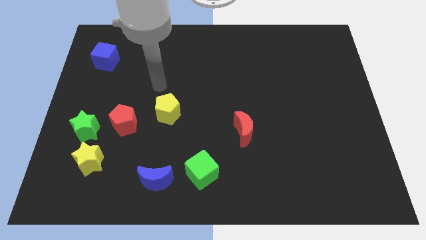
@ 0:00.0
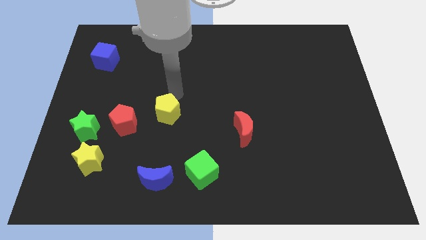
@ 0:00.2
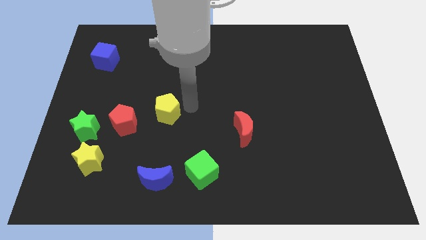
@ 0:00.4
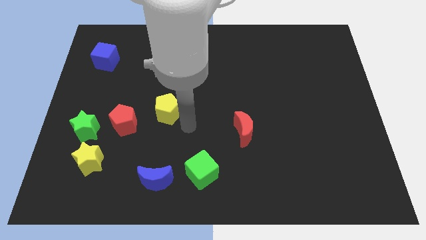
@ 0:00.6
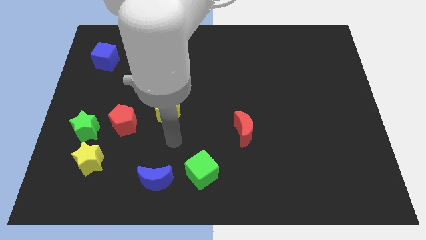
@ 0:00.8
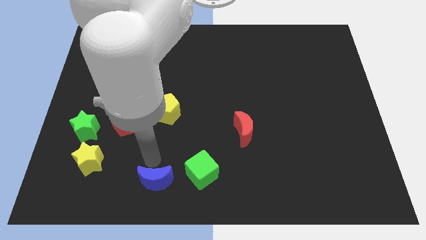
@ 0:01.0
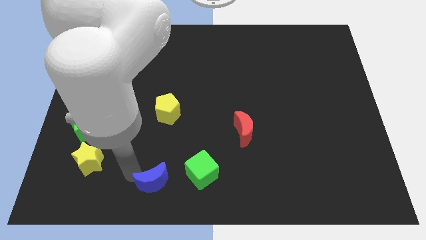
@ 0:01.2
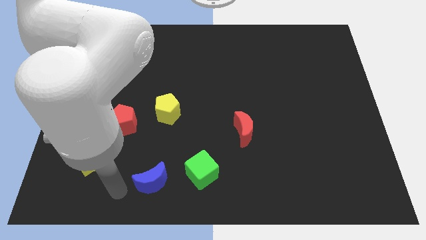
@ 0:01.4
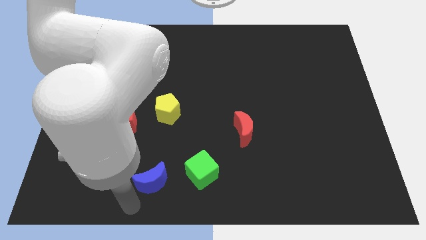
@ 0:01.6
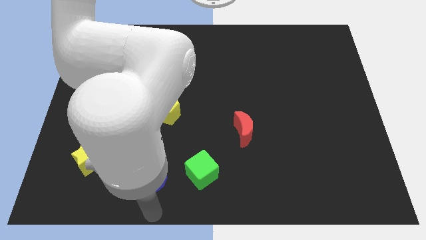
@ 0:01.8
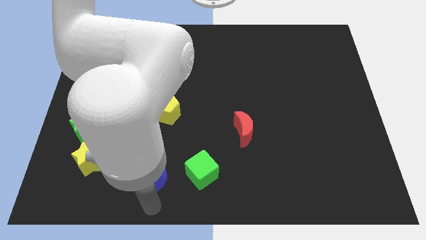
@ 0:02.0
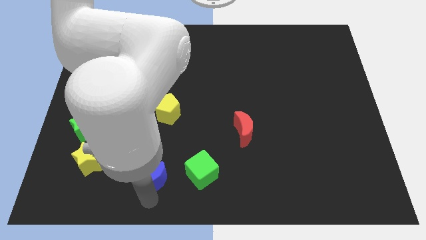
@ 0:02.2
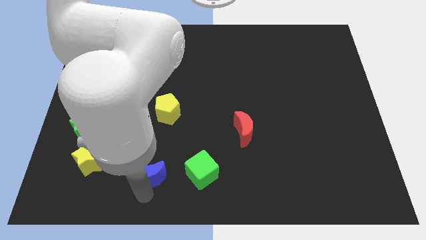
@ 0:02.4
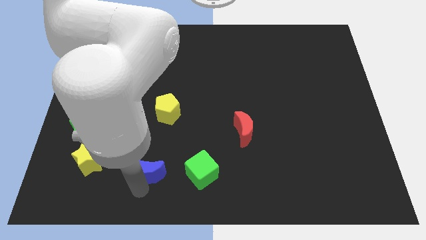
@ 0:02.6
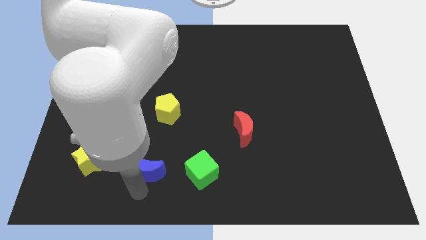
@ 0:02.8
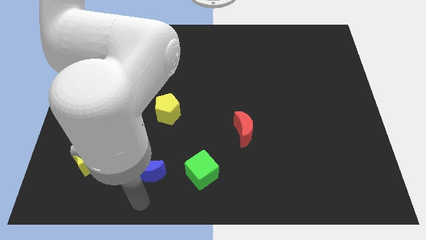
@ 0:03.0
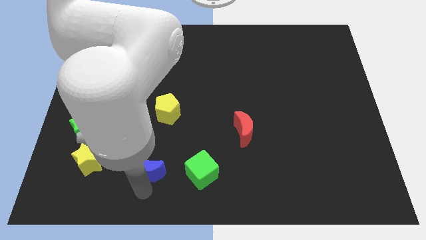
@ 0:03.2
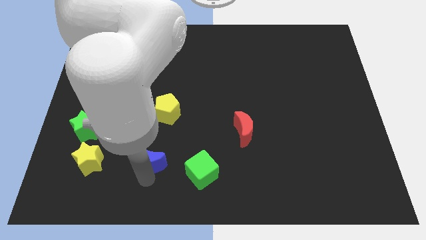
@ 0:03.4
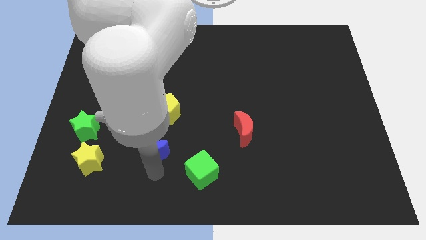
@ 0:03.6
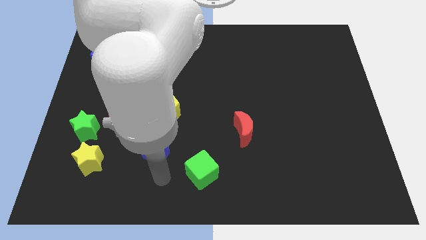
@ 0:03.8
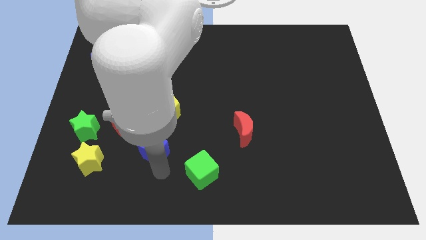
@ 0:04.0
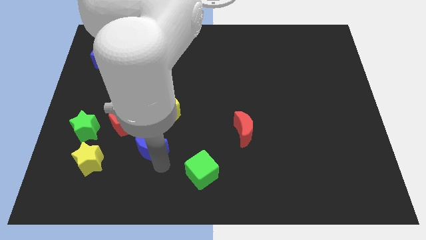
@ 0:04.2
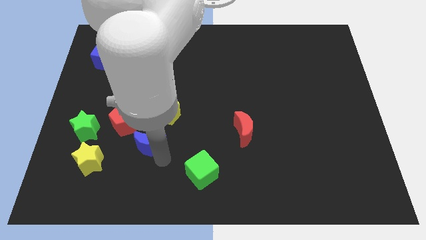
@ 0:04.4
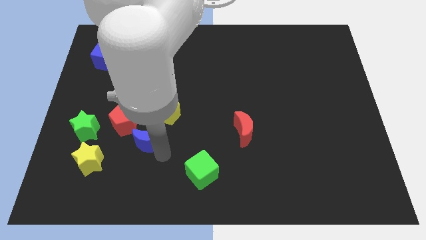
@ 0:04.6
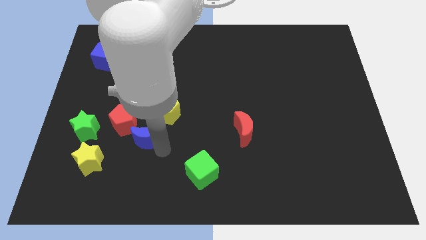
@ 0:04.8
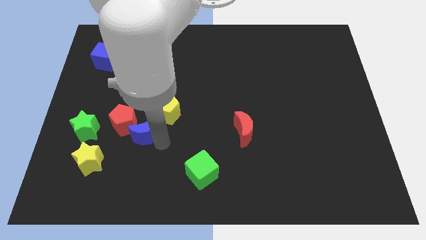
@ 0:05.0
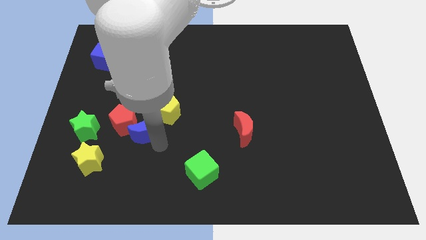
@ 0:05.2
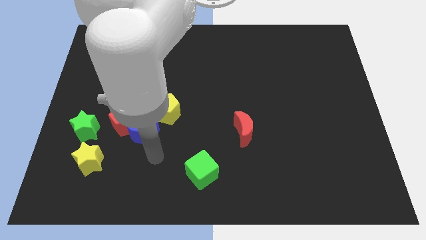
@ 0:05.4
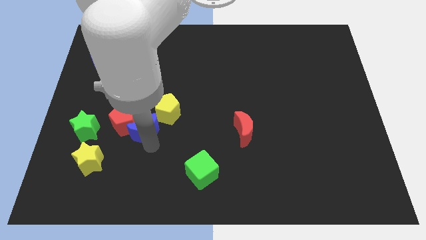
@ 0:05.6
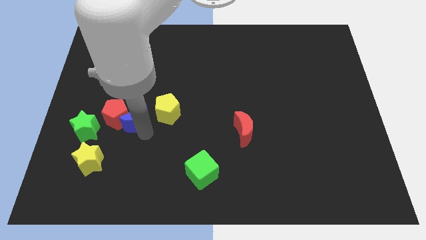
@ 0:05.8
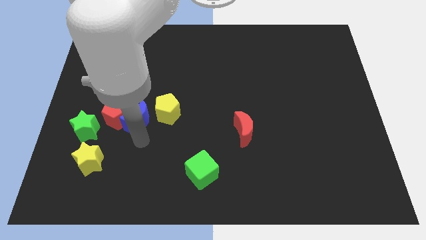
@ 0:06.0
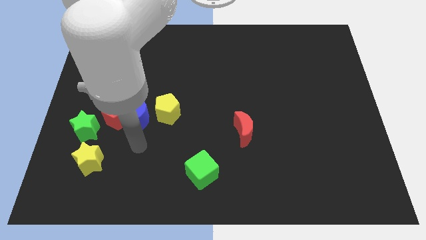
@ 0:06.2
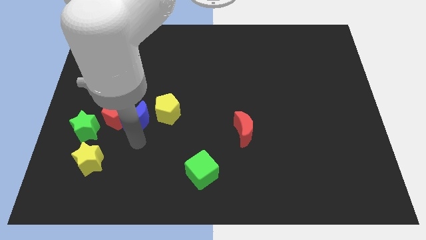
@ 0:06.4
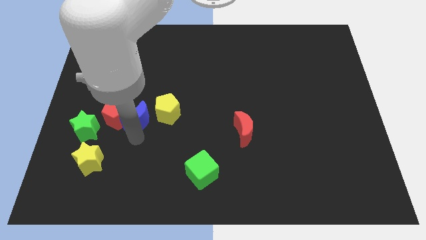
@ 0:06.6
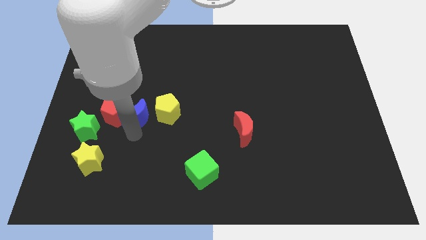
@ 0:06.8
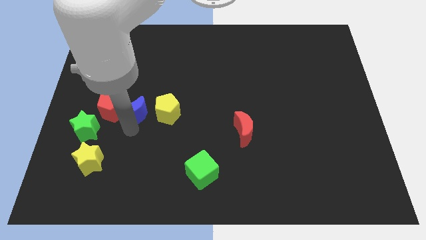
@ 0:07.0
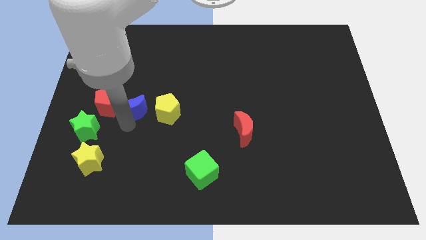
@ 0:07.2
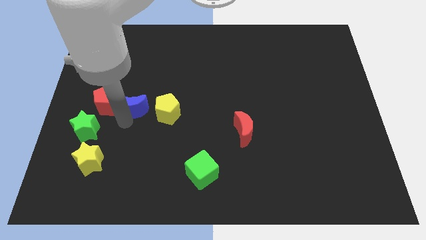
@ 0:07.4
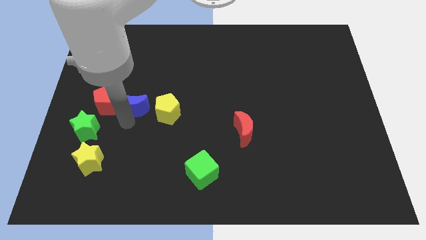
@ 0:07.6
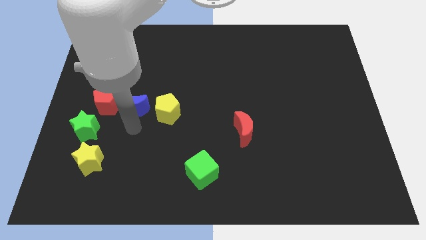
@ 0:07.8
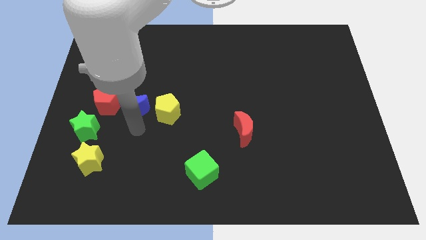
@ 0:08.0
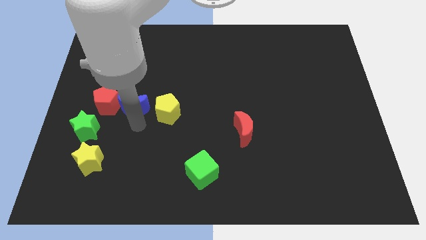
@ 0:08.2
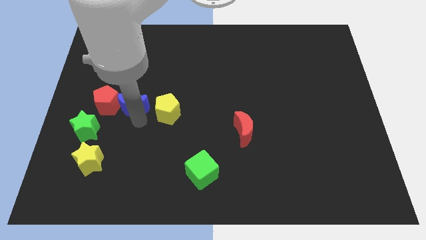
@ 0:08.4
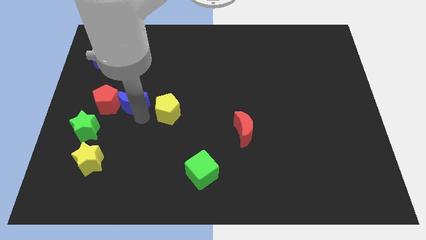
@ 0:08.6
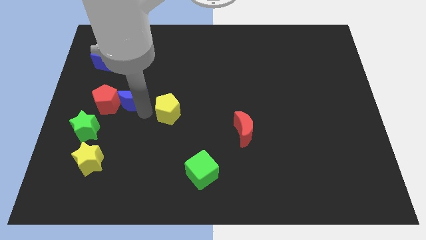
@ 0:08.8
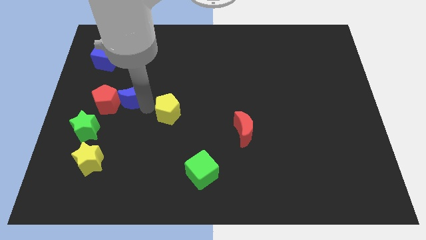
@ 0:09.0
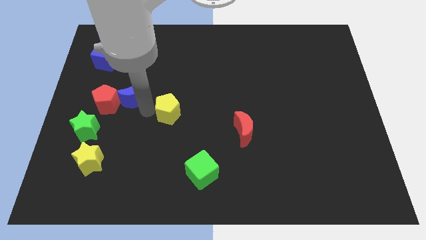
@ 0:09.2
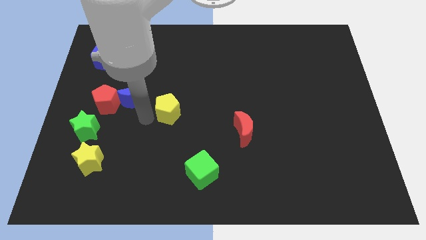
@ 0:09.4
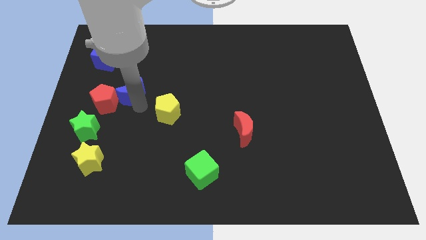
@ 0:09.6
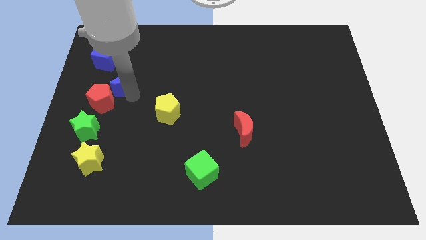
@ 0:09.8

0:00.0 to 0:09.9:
push the blue moon diagonally down and to the right of the blue cube

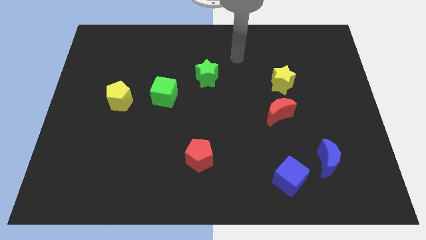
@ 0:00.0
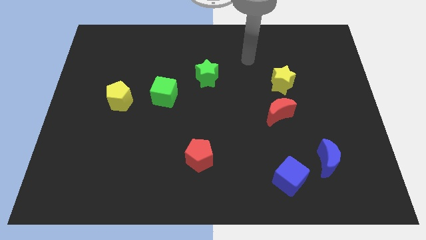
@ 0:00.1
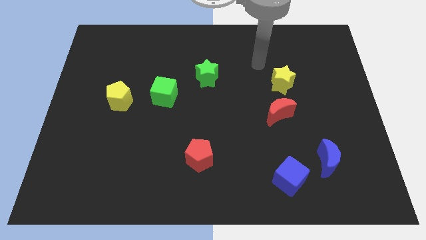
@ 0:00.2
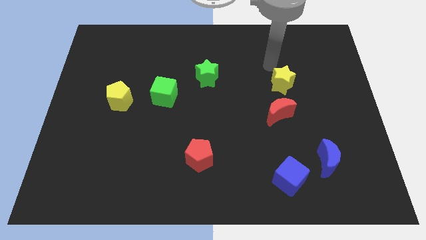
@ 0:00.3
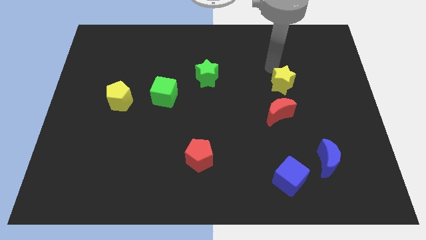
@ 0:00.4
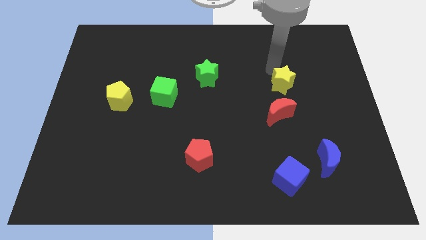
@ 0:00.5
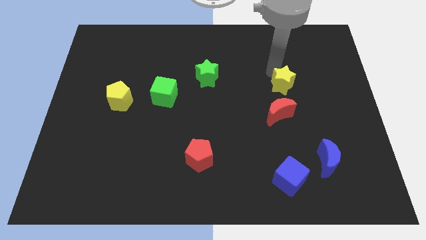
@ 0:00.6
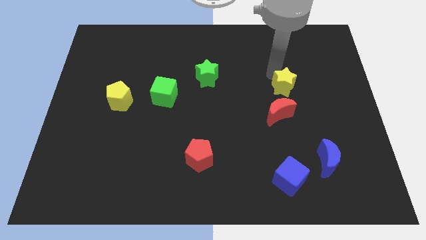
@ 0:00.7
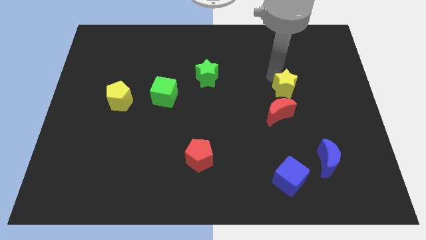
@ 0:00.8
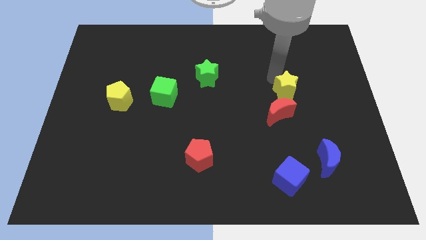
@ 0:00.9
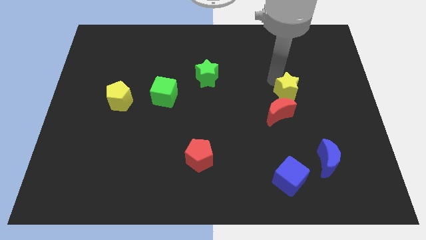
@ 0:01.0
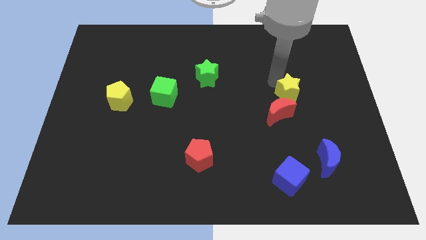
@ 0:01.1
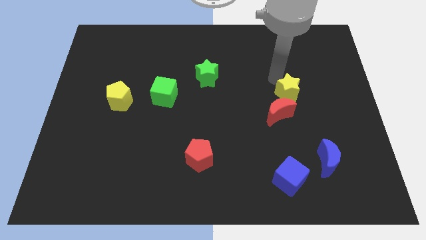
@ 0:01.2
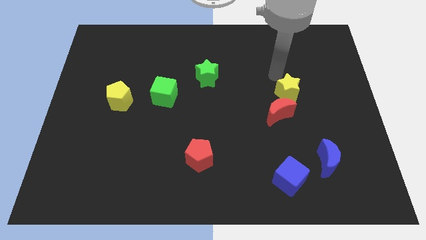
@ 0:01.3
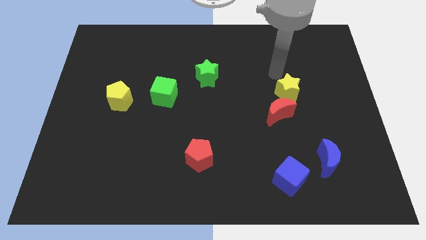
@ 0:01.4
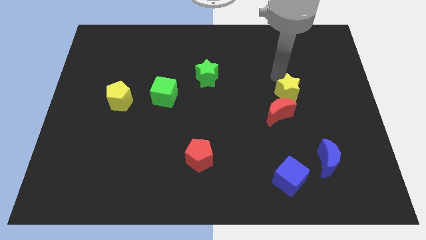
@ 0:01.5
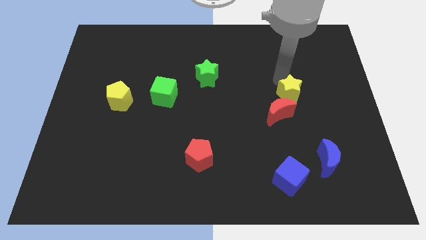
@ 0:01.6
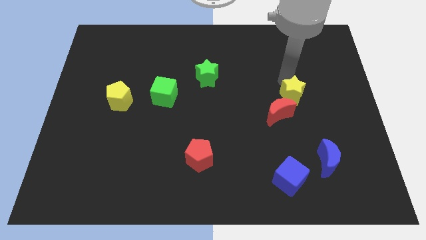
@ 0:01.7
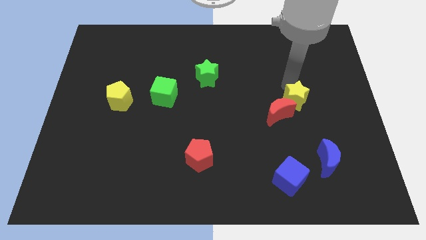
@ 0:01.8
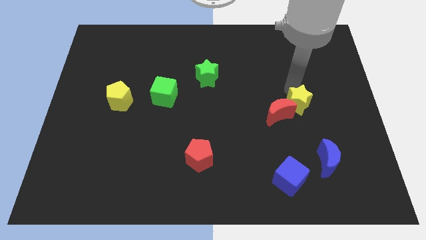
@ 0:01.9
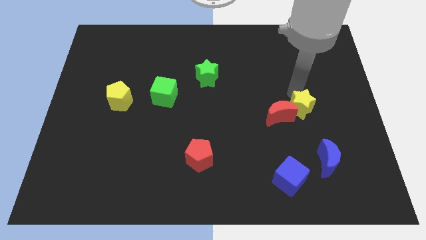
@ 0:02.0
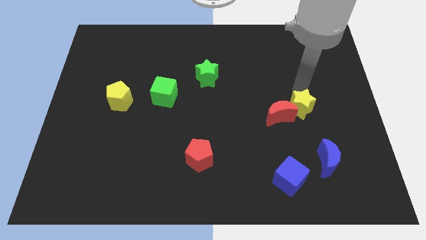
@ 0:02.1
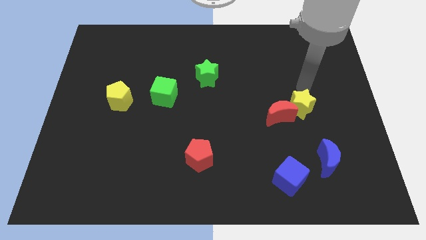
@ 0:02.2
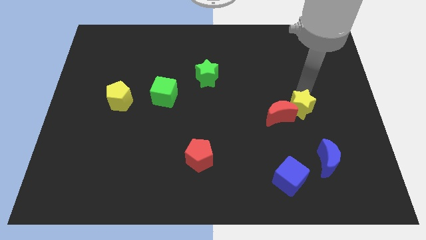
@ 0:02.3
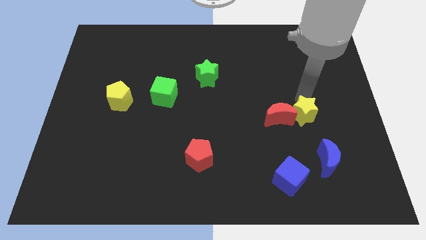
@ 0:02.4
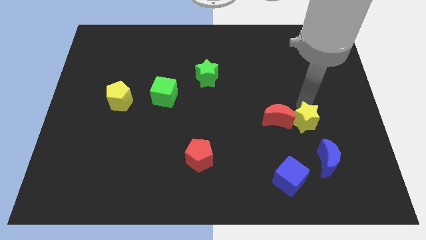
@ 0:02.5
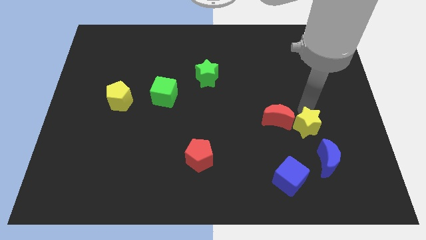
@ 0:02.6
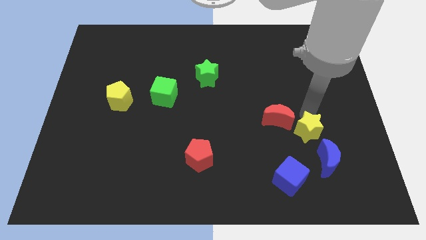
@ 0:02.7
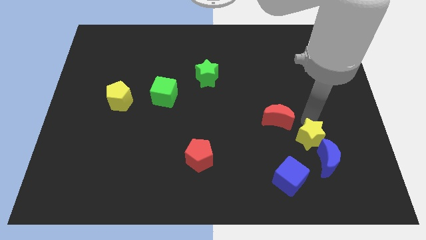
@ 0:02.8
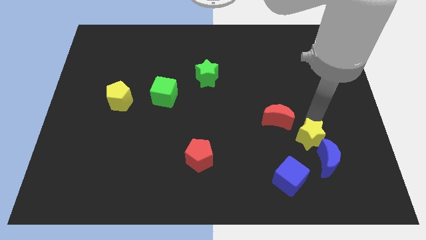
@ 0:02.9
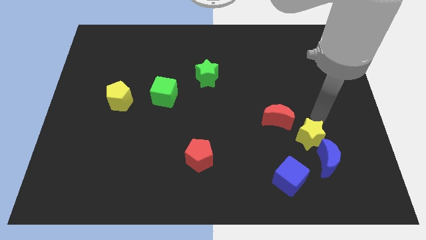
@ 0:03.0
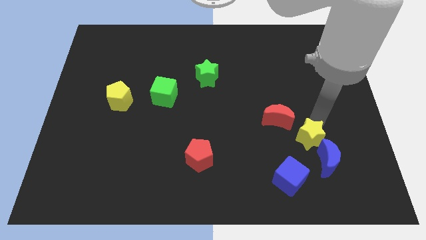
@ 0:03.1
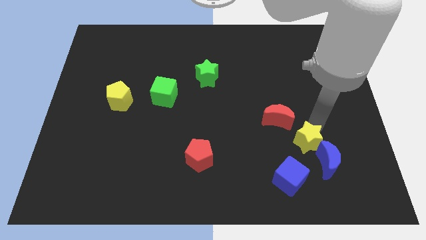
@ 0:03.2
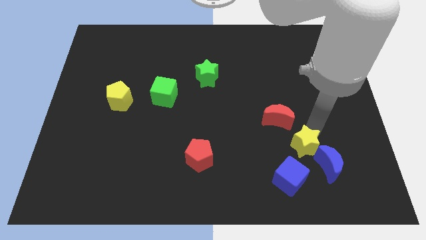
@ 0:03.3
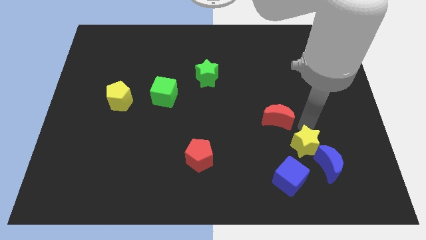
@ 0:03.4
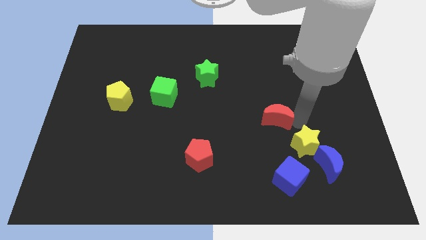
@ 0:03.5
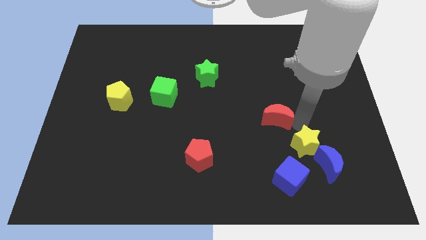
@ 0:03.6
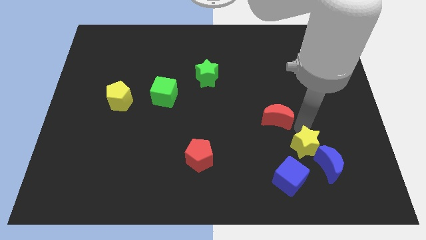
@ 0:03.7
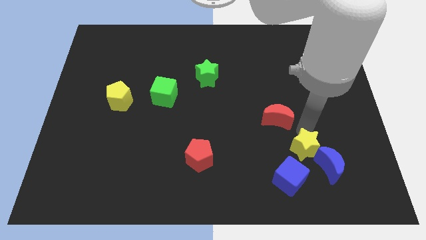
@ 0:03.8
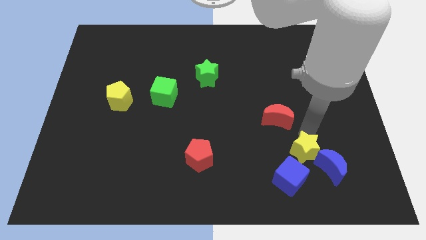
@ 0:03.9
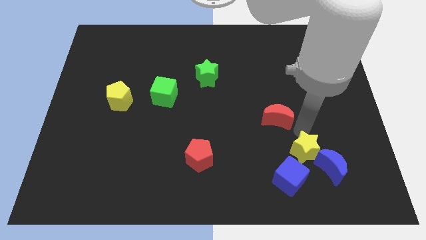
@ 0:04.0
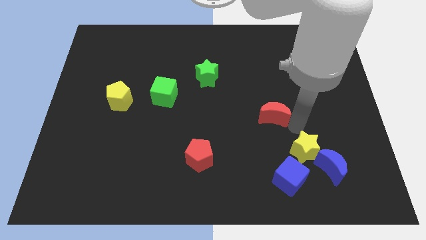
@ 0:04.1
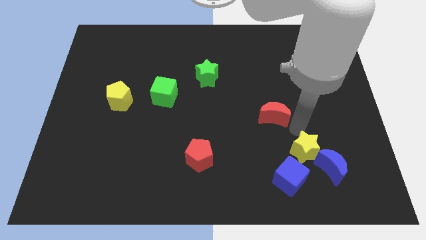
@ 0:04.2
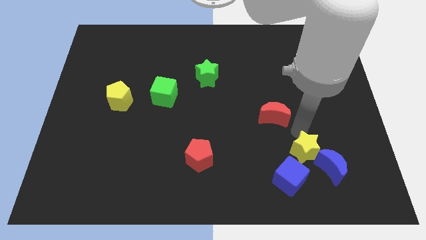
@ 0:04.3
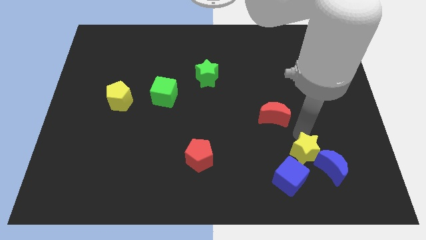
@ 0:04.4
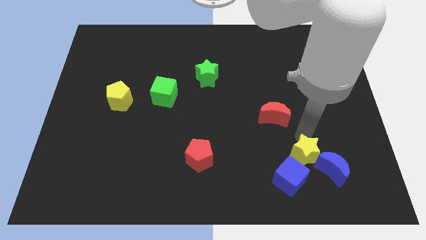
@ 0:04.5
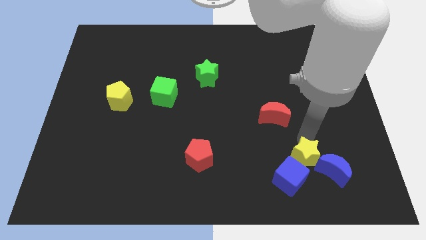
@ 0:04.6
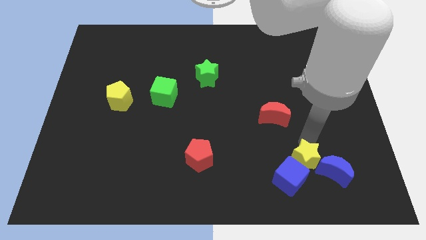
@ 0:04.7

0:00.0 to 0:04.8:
push the yellow star to the right side of the blue cube
